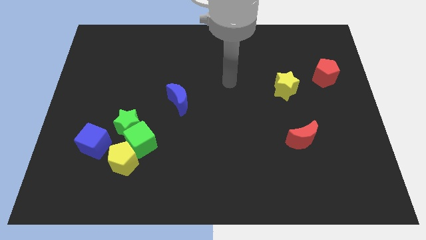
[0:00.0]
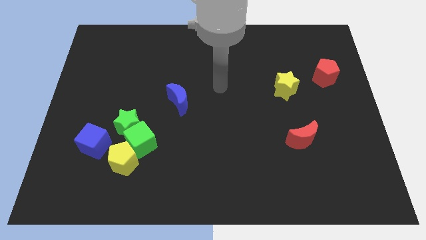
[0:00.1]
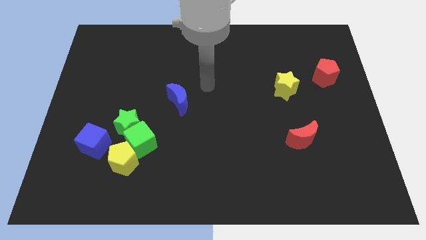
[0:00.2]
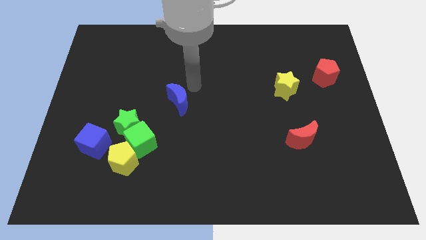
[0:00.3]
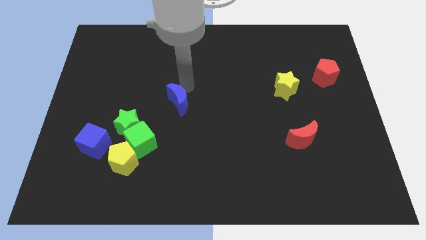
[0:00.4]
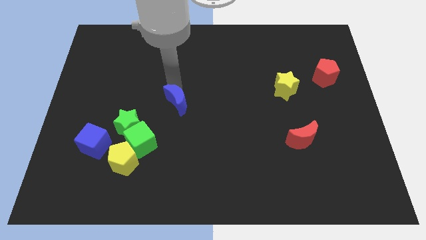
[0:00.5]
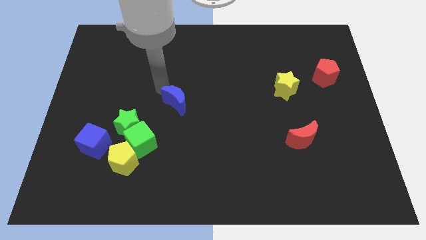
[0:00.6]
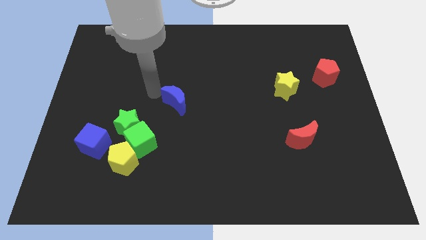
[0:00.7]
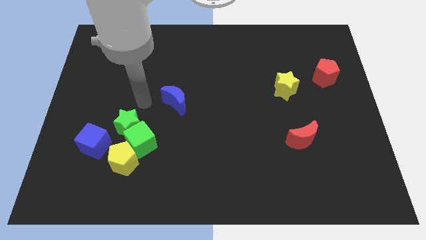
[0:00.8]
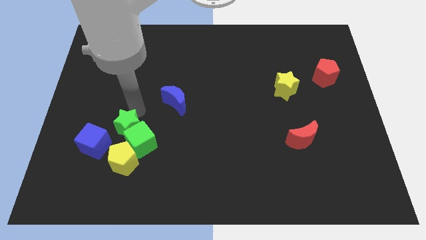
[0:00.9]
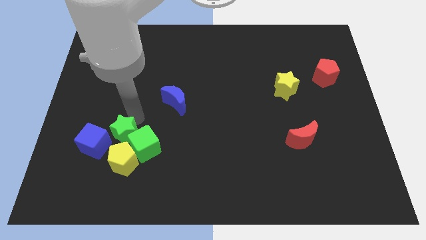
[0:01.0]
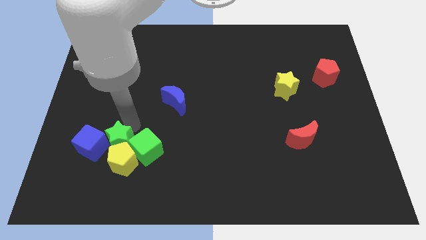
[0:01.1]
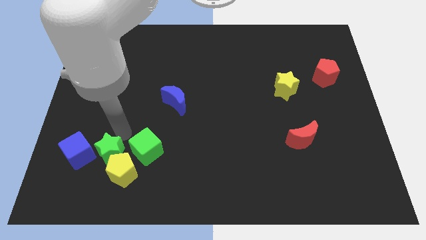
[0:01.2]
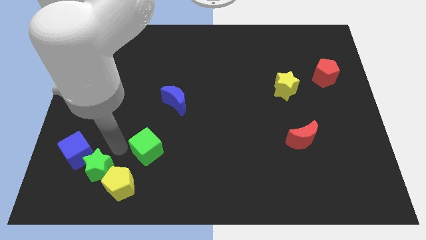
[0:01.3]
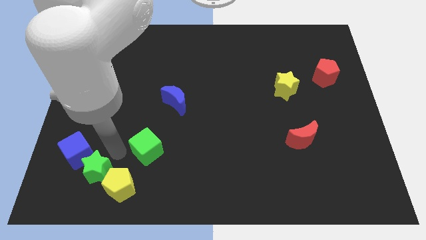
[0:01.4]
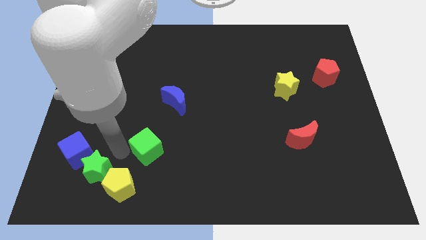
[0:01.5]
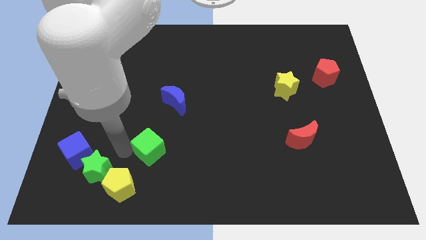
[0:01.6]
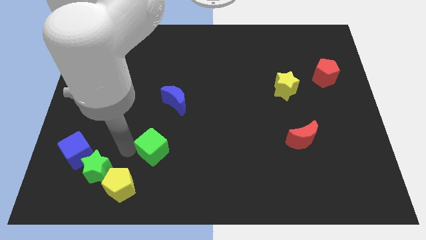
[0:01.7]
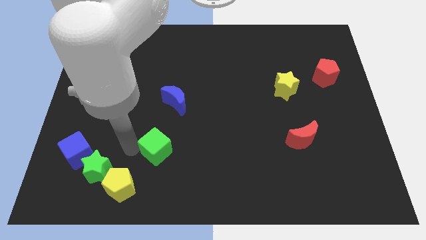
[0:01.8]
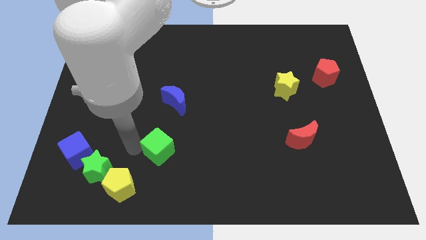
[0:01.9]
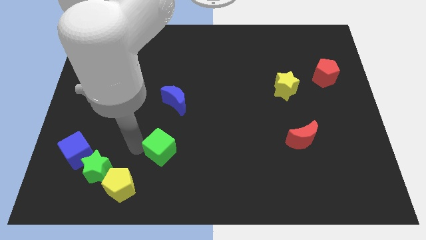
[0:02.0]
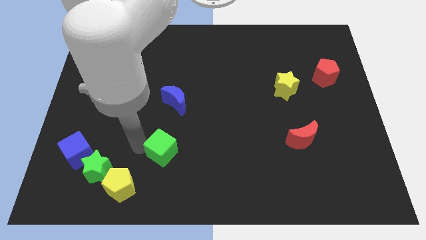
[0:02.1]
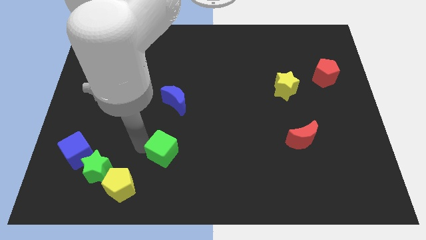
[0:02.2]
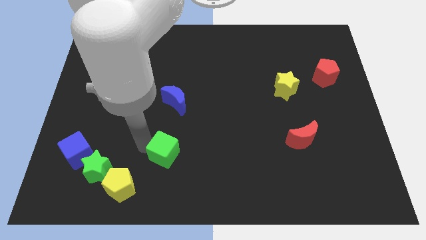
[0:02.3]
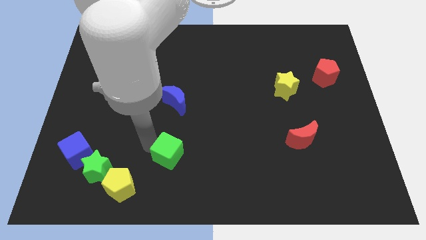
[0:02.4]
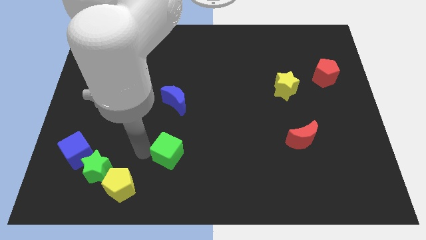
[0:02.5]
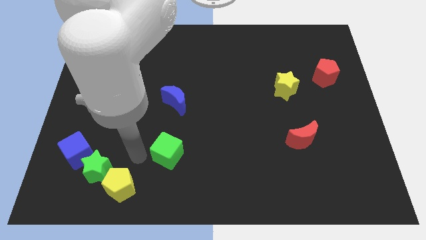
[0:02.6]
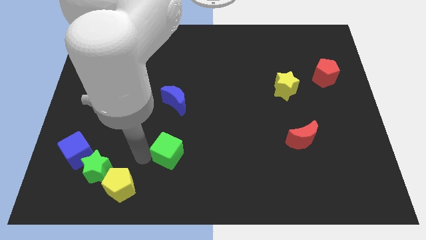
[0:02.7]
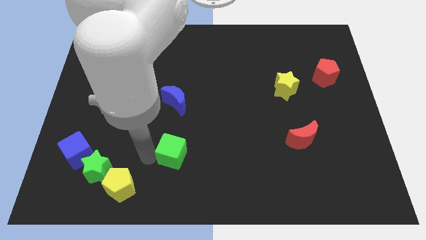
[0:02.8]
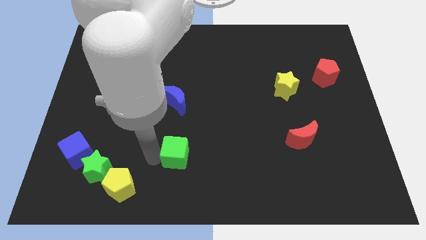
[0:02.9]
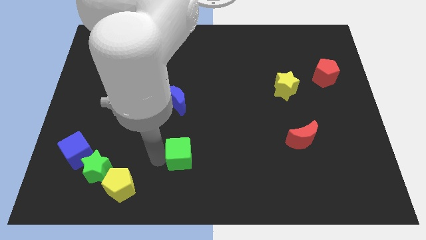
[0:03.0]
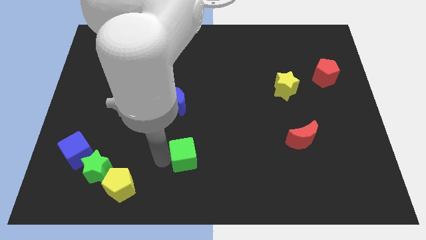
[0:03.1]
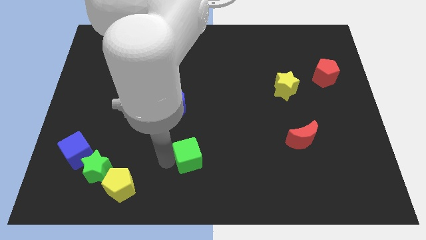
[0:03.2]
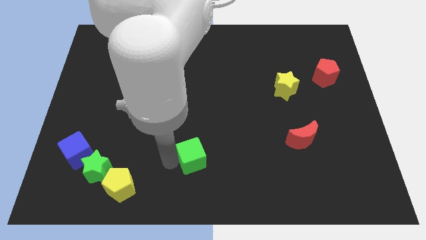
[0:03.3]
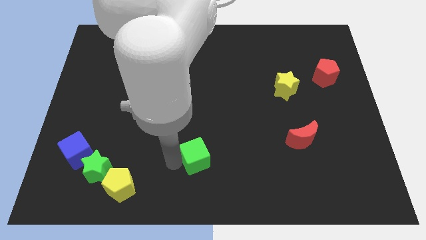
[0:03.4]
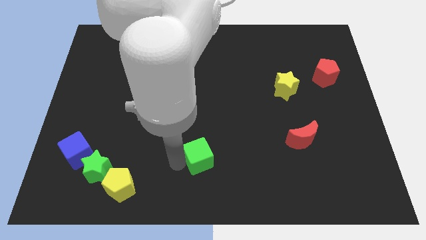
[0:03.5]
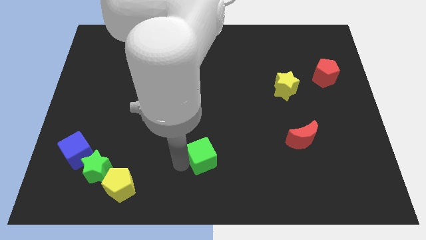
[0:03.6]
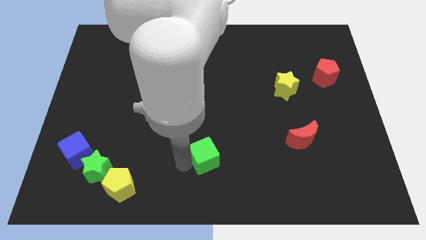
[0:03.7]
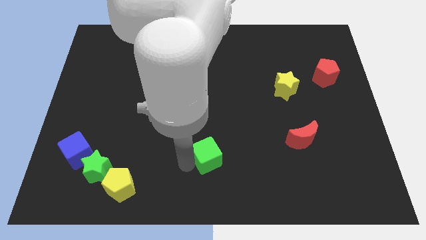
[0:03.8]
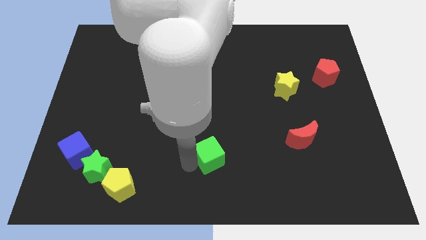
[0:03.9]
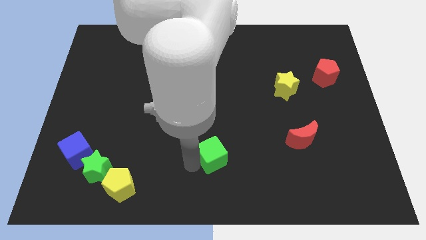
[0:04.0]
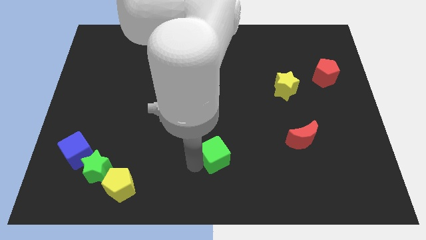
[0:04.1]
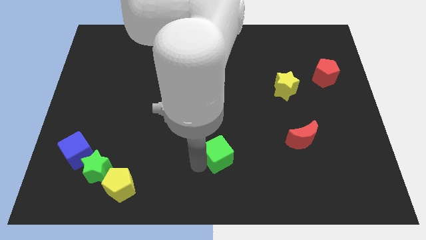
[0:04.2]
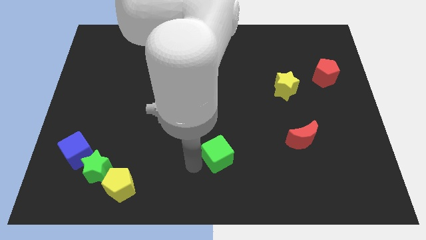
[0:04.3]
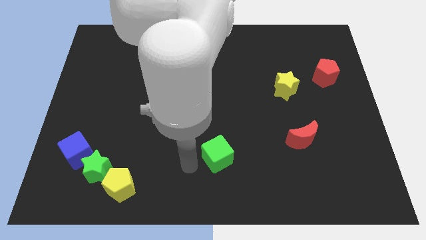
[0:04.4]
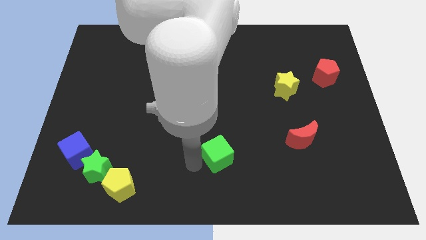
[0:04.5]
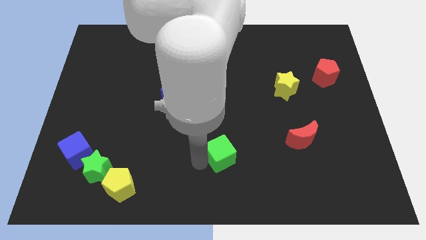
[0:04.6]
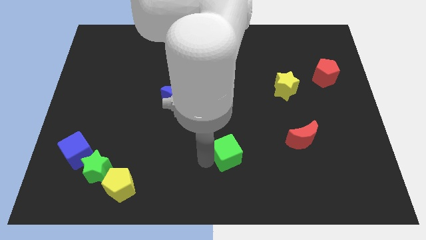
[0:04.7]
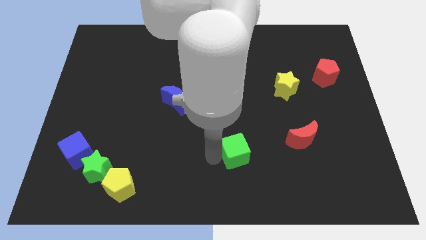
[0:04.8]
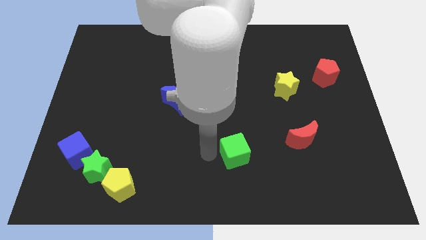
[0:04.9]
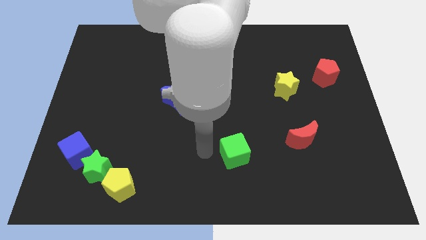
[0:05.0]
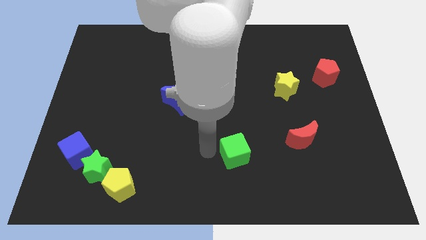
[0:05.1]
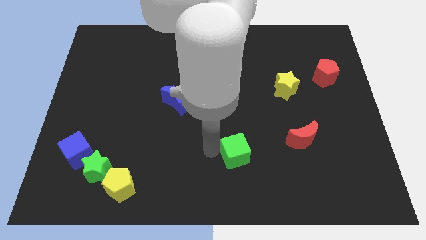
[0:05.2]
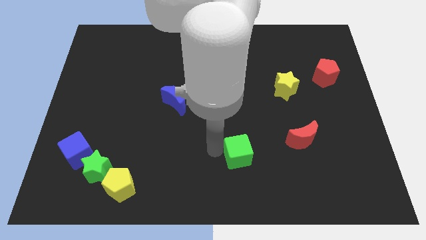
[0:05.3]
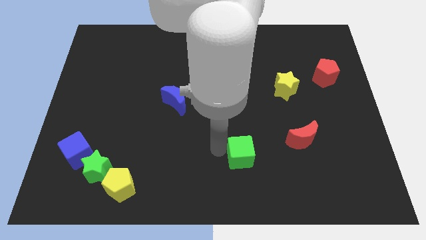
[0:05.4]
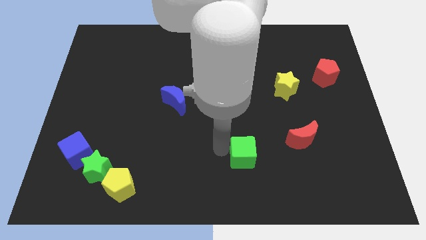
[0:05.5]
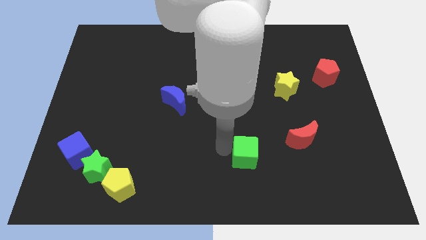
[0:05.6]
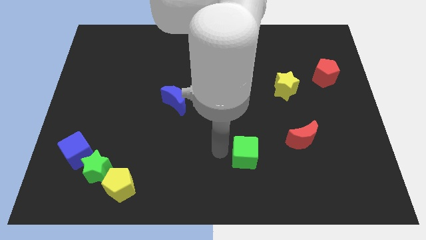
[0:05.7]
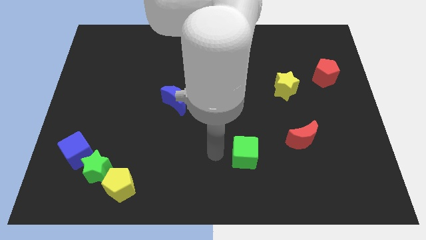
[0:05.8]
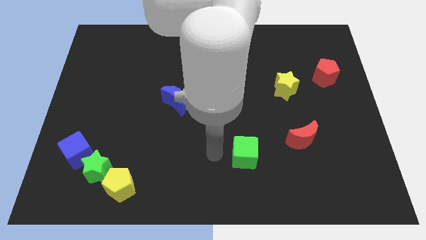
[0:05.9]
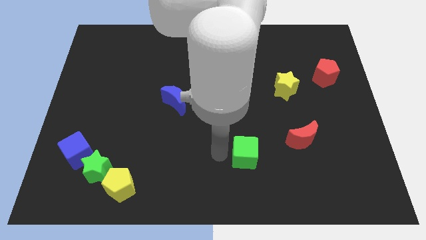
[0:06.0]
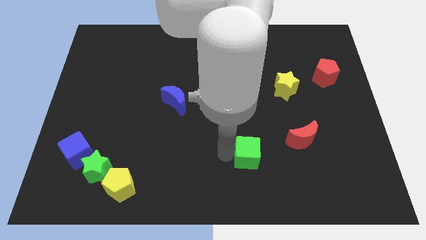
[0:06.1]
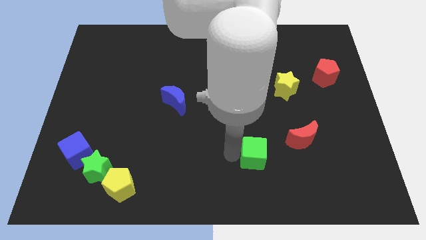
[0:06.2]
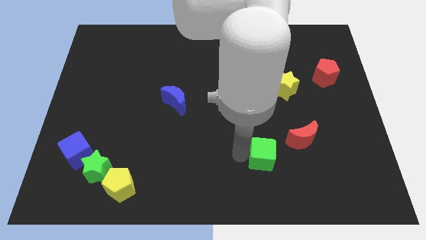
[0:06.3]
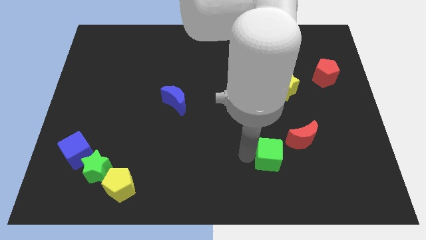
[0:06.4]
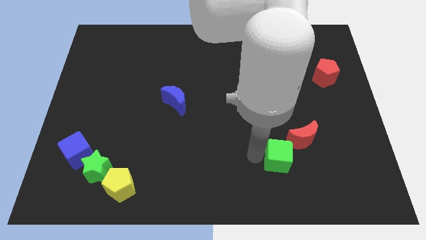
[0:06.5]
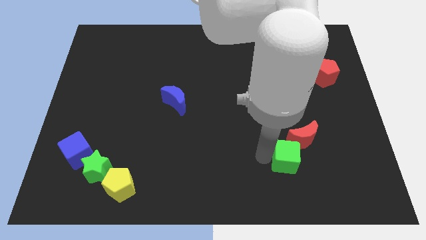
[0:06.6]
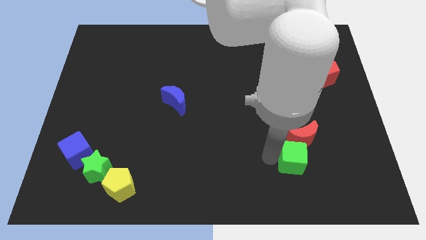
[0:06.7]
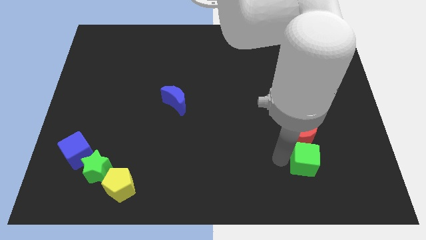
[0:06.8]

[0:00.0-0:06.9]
move the green cube to the bottom right of the red moon
